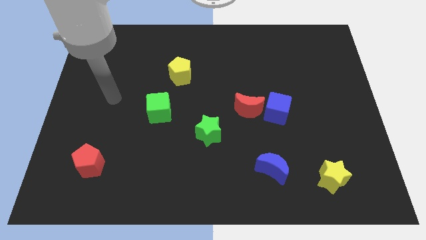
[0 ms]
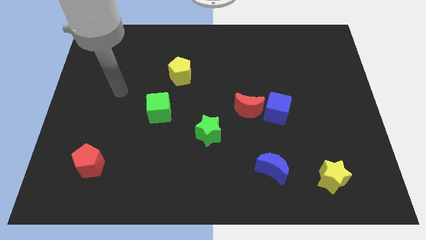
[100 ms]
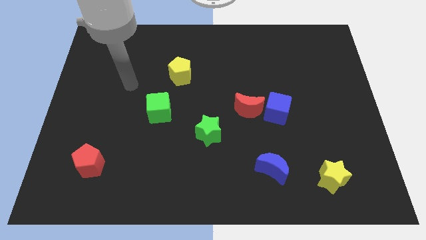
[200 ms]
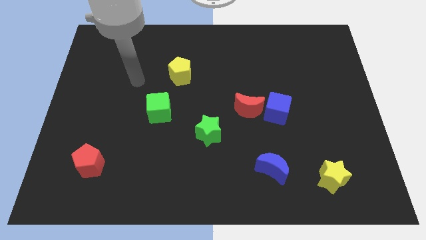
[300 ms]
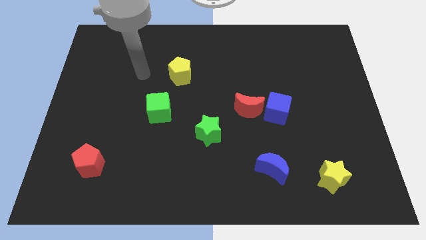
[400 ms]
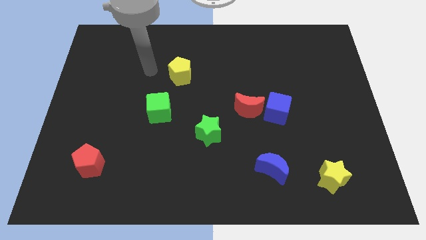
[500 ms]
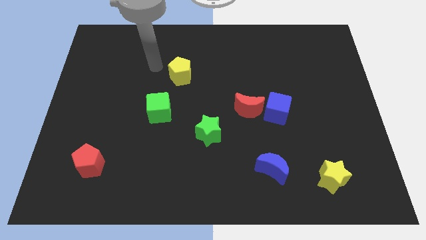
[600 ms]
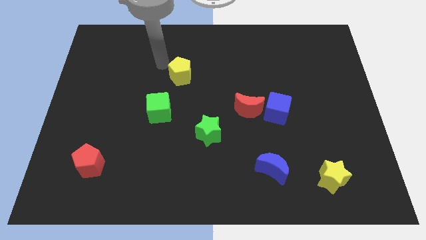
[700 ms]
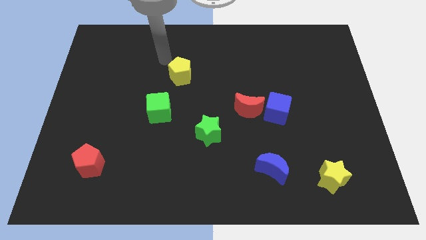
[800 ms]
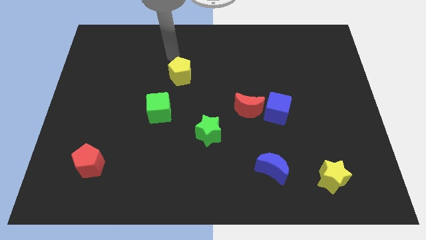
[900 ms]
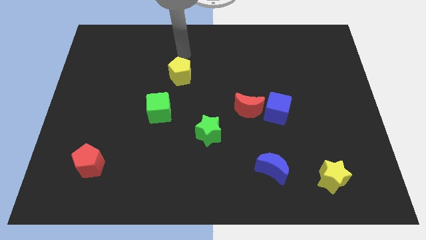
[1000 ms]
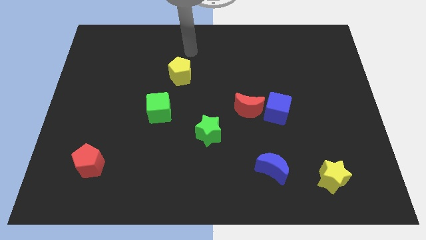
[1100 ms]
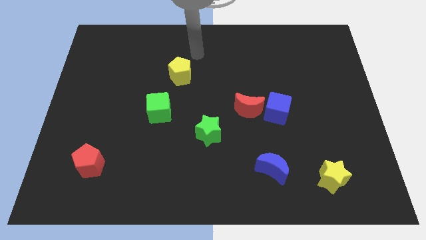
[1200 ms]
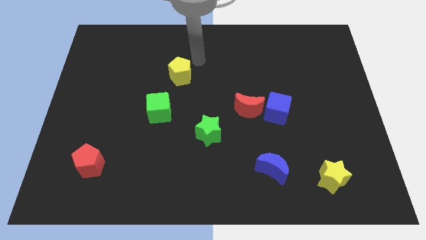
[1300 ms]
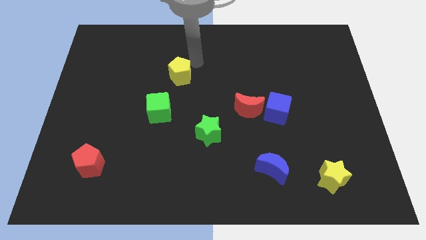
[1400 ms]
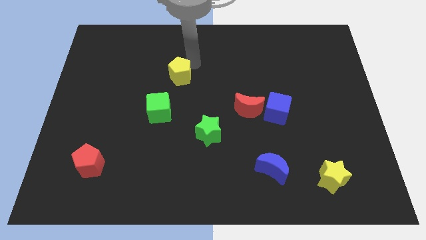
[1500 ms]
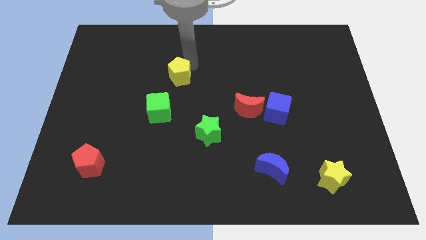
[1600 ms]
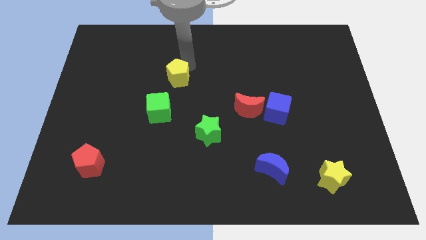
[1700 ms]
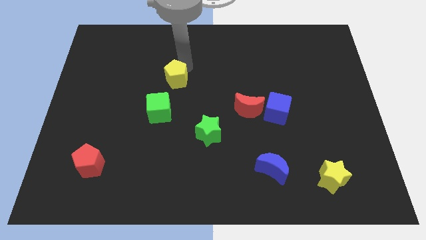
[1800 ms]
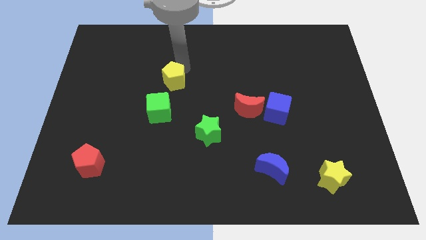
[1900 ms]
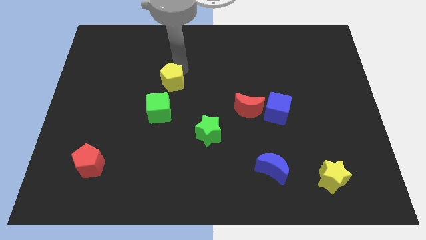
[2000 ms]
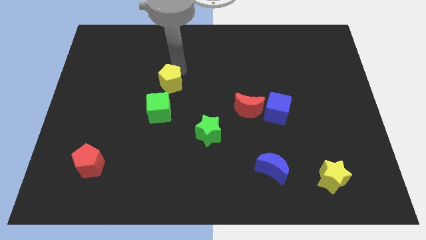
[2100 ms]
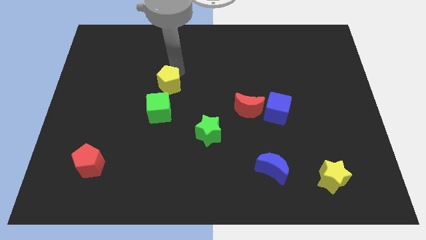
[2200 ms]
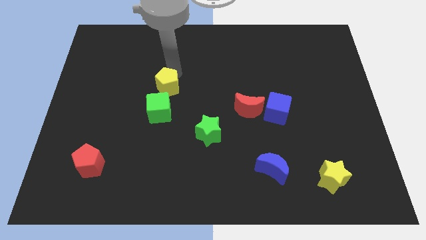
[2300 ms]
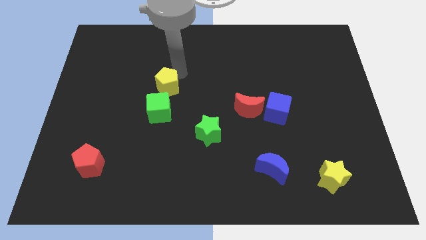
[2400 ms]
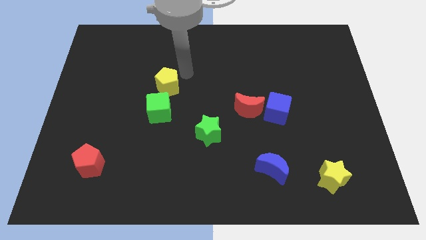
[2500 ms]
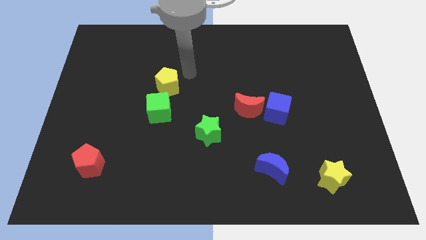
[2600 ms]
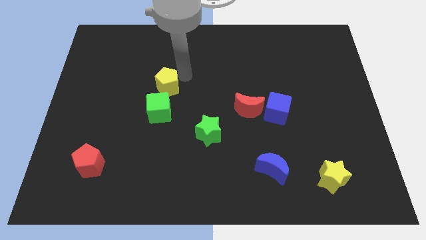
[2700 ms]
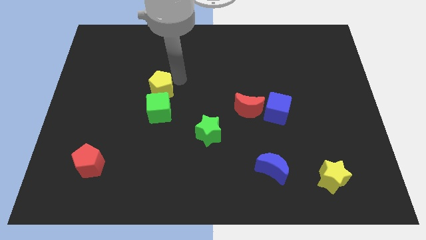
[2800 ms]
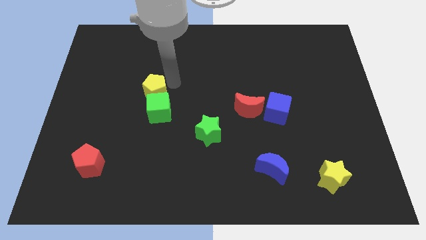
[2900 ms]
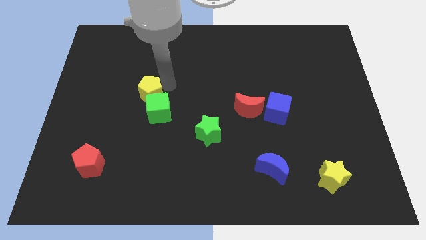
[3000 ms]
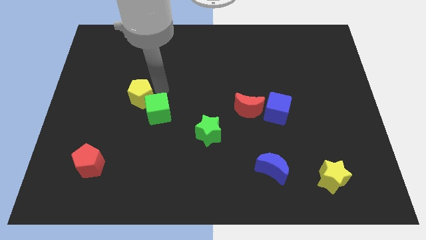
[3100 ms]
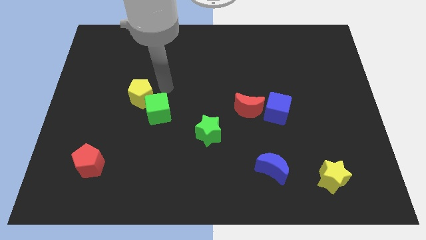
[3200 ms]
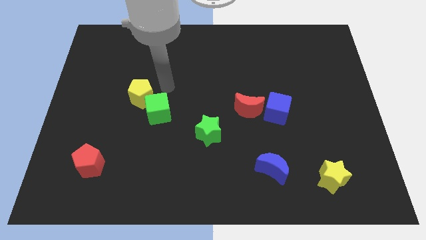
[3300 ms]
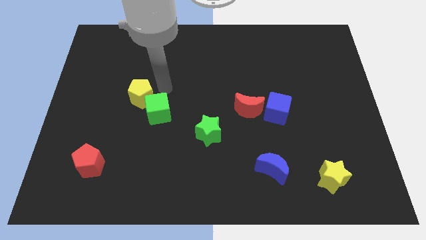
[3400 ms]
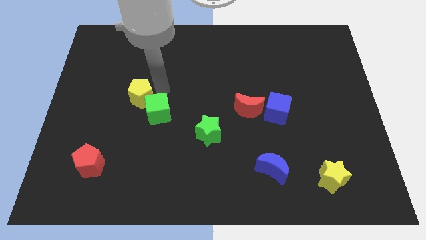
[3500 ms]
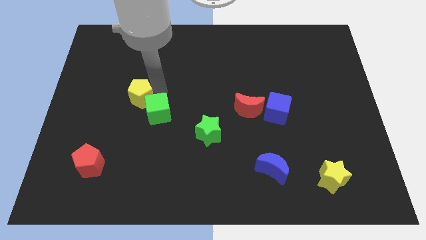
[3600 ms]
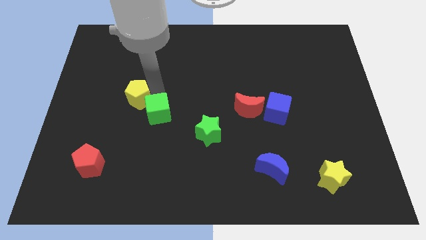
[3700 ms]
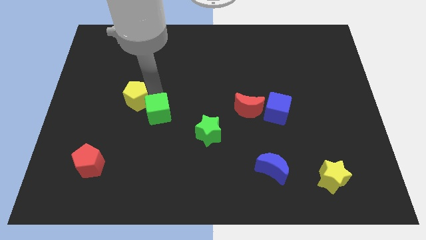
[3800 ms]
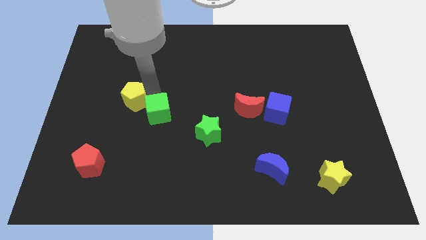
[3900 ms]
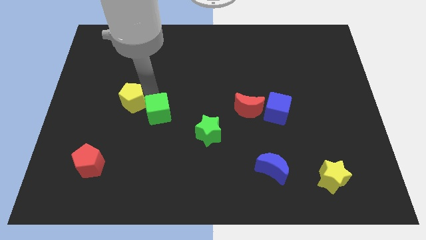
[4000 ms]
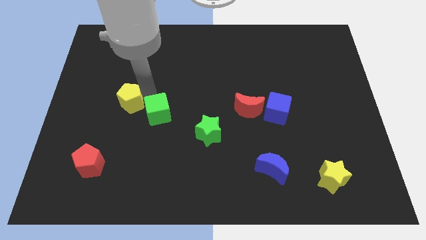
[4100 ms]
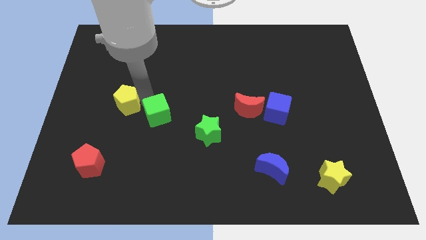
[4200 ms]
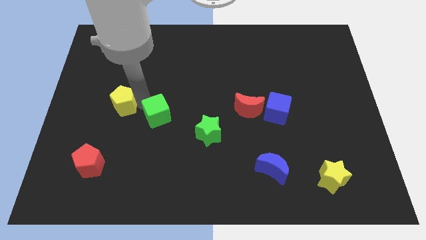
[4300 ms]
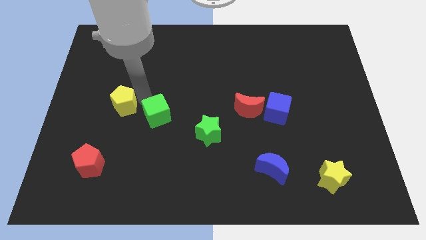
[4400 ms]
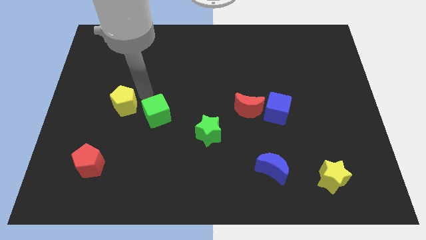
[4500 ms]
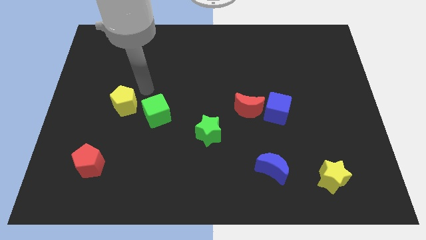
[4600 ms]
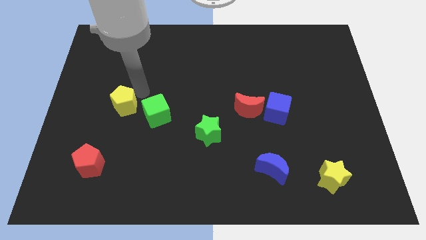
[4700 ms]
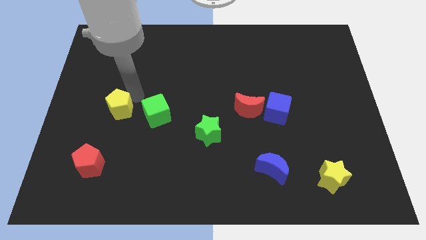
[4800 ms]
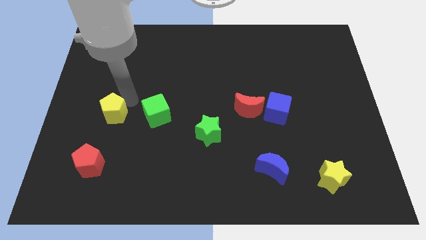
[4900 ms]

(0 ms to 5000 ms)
push the yellow pentagon to the top of the red pentagon

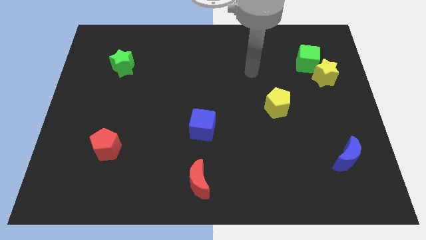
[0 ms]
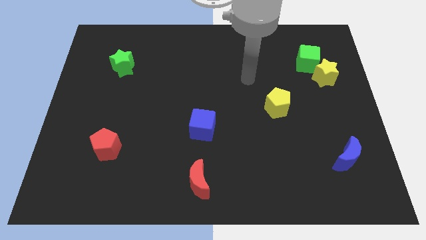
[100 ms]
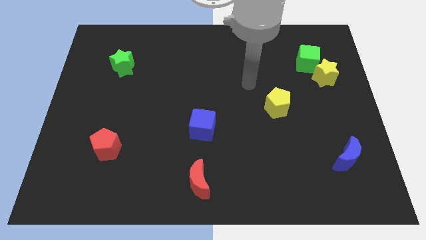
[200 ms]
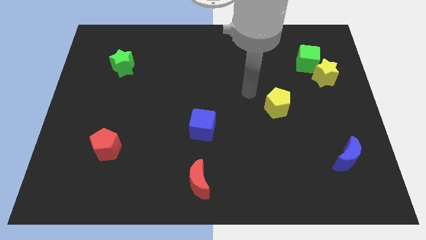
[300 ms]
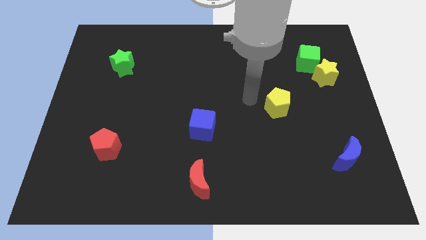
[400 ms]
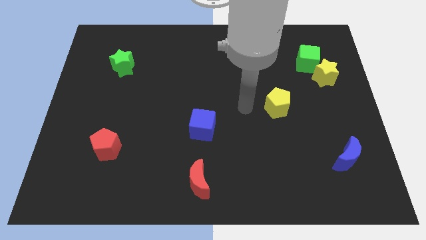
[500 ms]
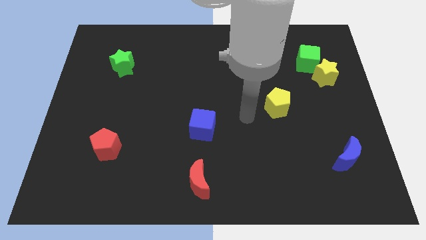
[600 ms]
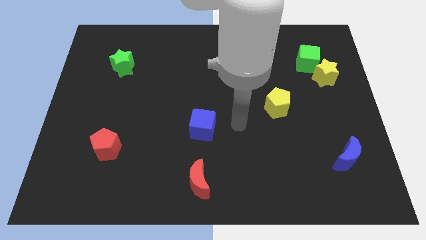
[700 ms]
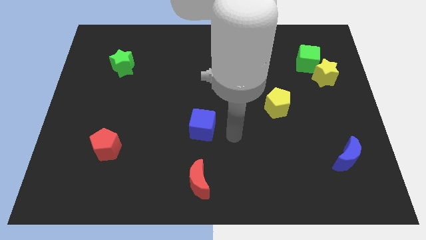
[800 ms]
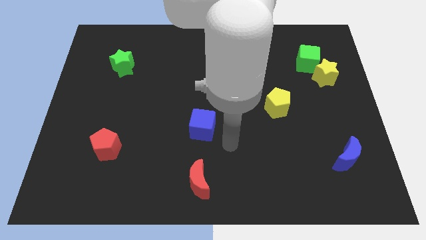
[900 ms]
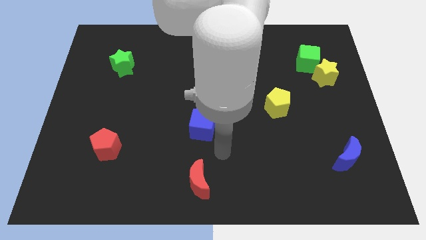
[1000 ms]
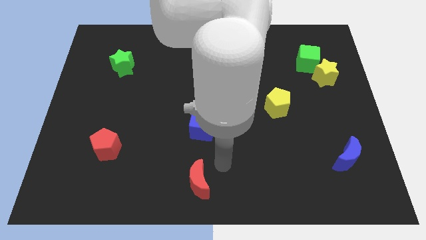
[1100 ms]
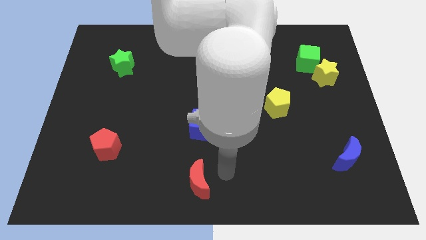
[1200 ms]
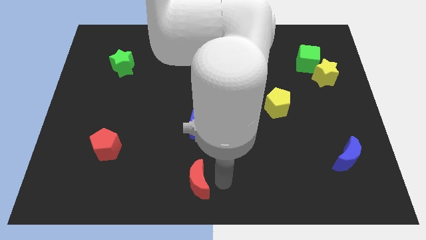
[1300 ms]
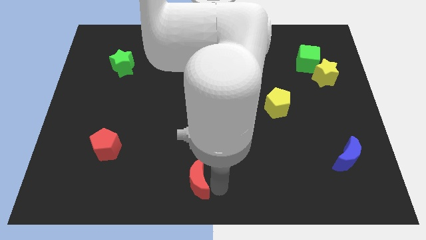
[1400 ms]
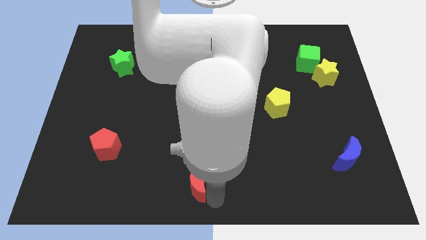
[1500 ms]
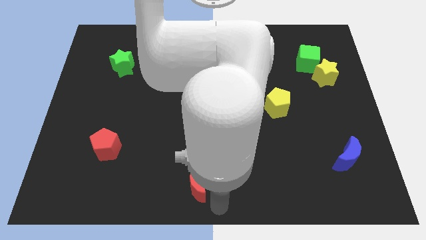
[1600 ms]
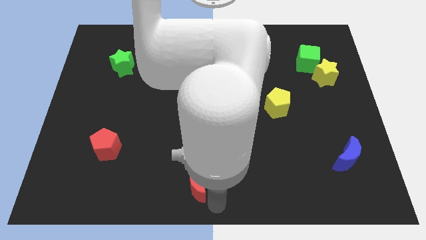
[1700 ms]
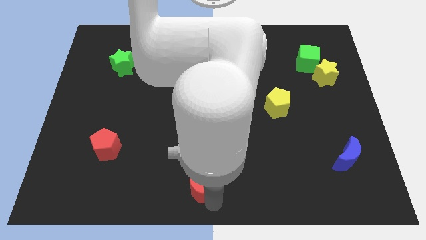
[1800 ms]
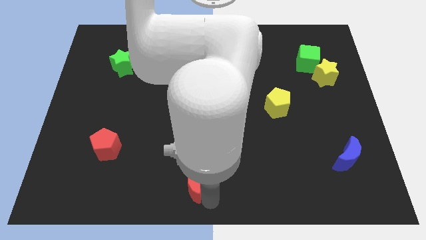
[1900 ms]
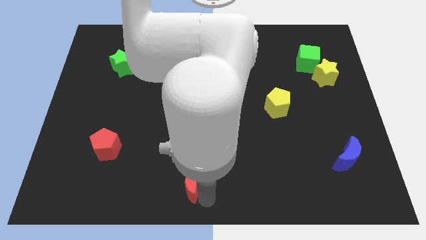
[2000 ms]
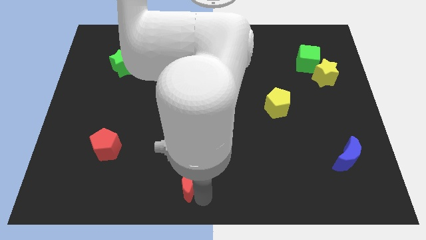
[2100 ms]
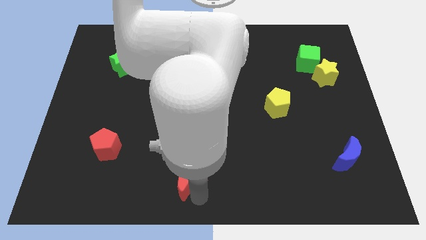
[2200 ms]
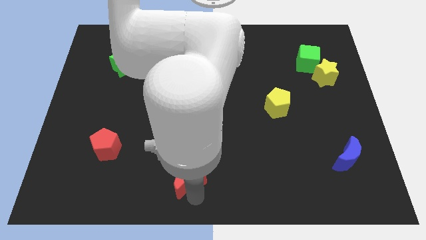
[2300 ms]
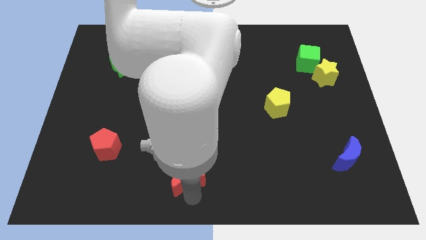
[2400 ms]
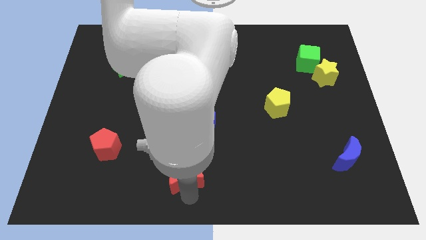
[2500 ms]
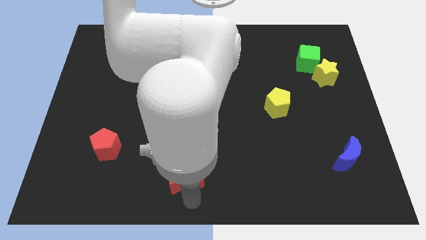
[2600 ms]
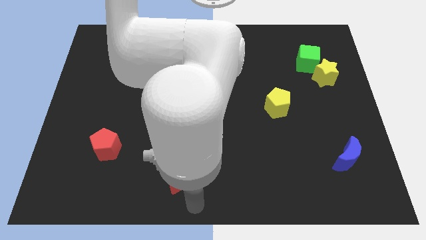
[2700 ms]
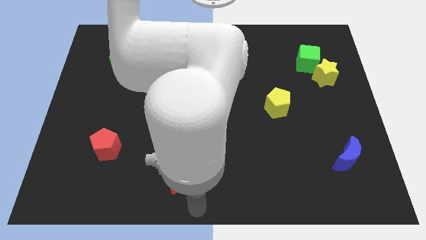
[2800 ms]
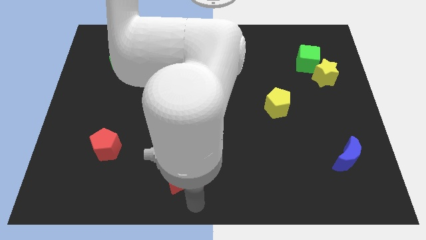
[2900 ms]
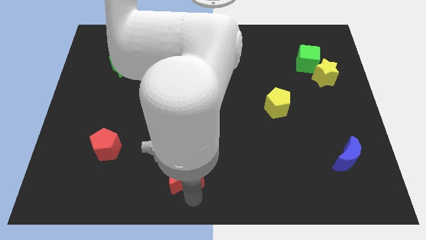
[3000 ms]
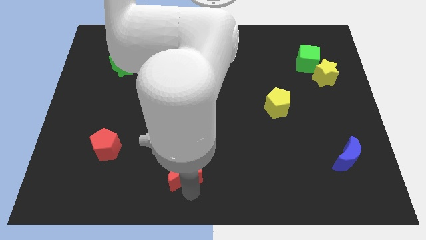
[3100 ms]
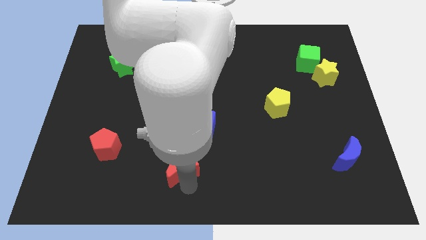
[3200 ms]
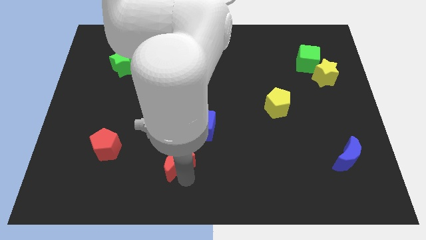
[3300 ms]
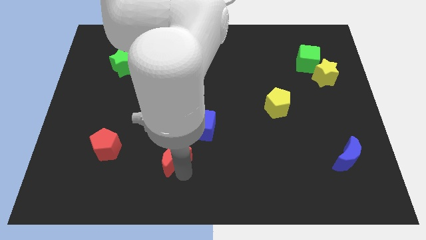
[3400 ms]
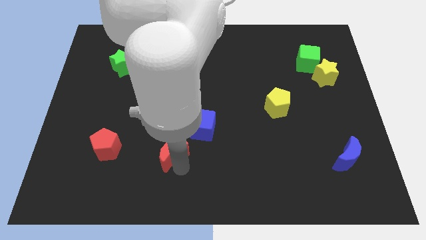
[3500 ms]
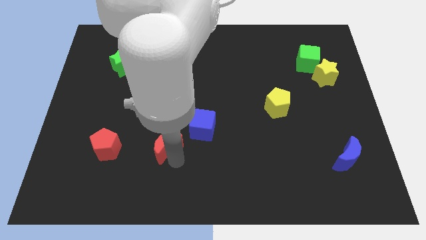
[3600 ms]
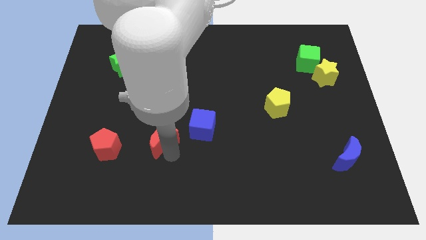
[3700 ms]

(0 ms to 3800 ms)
put the red moon to the left of the blue cube
